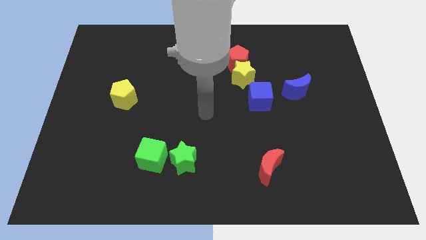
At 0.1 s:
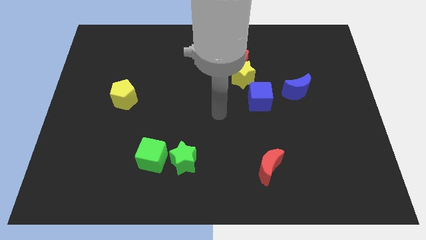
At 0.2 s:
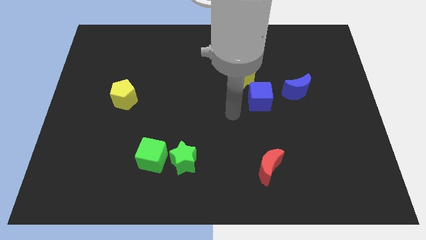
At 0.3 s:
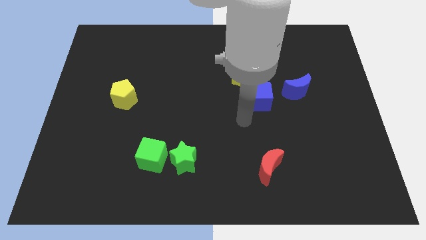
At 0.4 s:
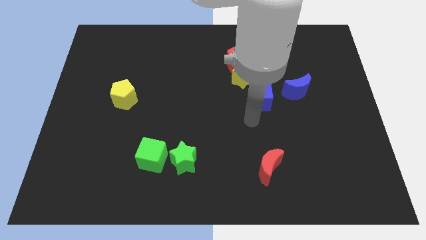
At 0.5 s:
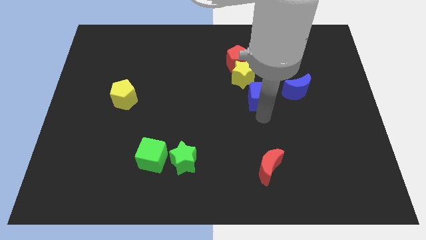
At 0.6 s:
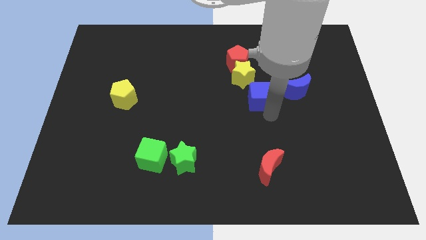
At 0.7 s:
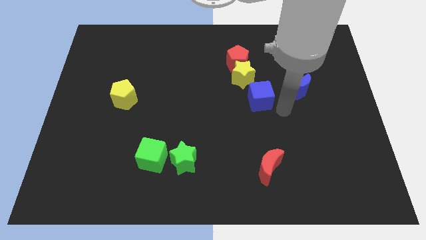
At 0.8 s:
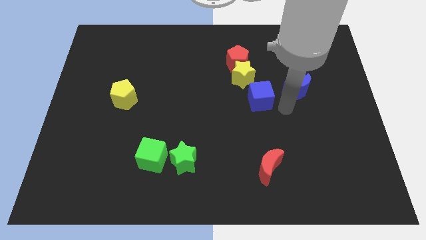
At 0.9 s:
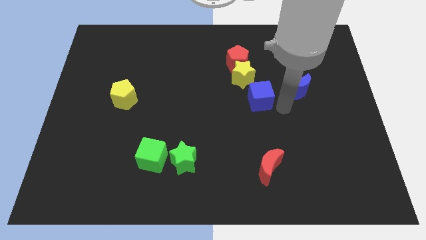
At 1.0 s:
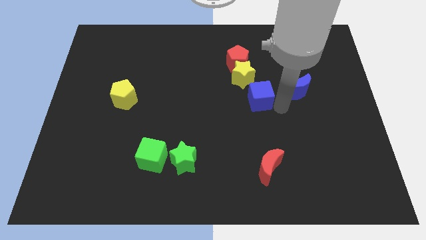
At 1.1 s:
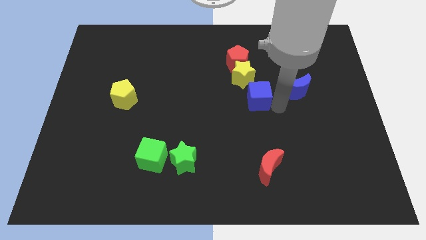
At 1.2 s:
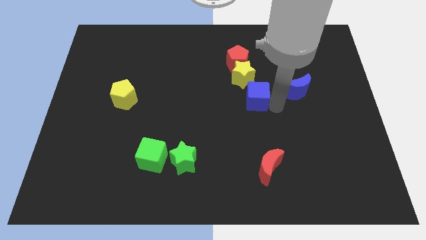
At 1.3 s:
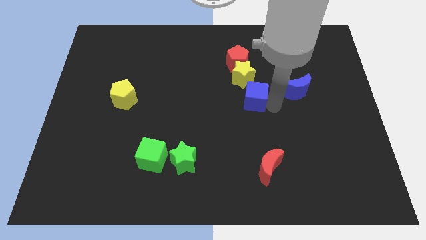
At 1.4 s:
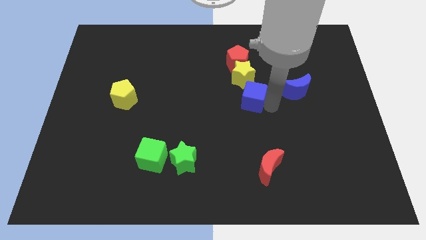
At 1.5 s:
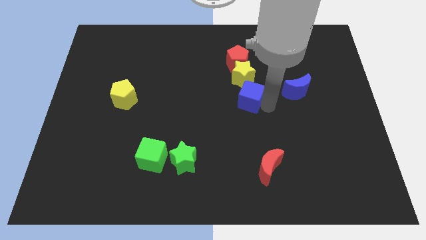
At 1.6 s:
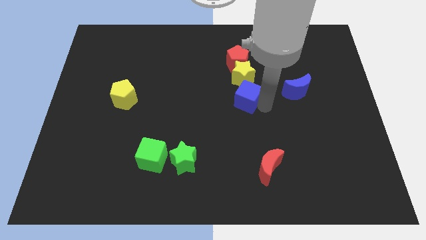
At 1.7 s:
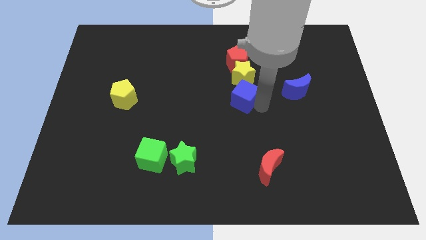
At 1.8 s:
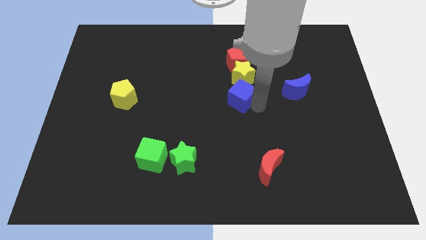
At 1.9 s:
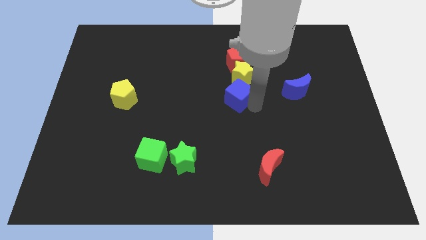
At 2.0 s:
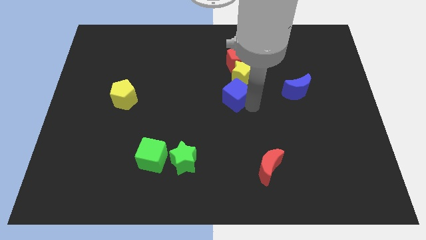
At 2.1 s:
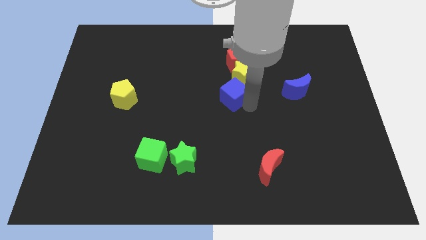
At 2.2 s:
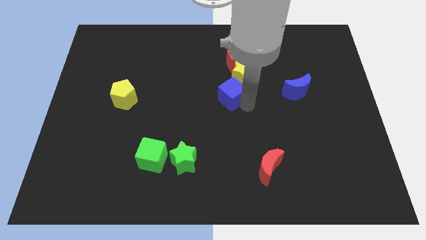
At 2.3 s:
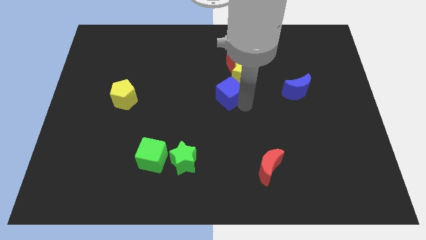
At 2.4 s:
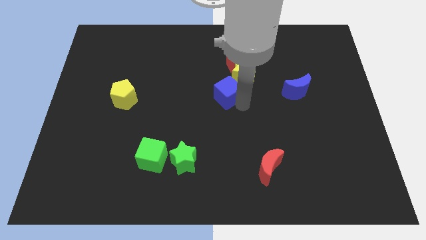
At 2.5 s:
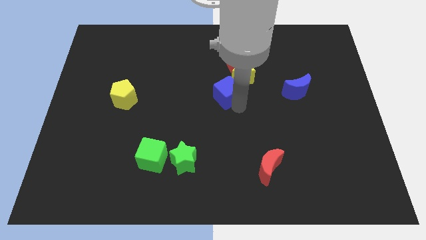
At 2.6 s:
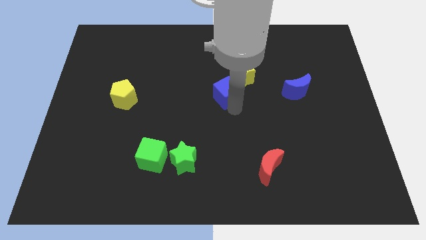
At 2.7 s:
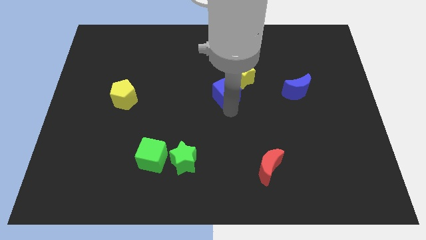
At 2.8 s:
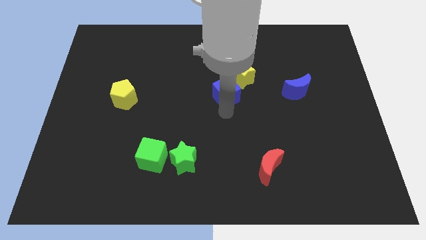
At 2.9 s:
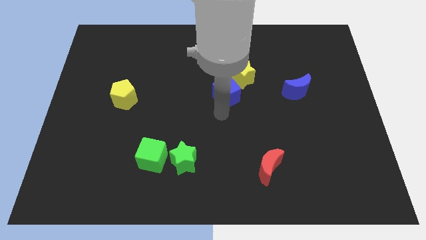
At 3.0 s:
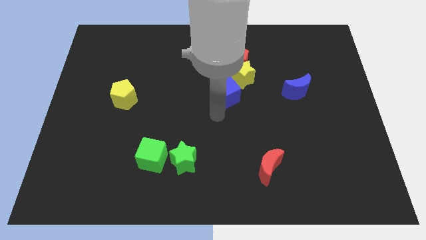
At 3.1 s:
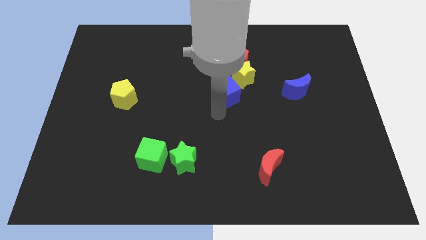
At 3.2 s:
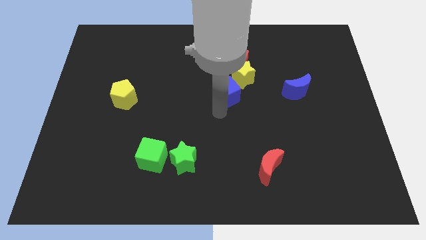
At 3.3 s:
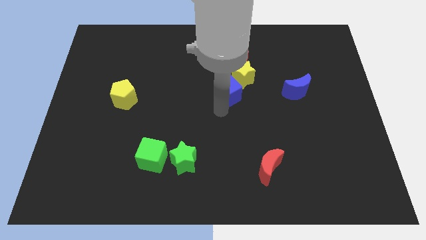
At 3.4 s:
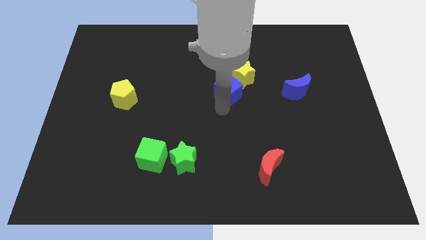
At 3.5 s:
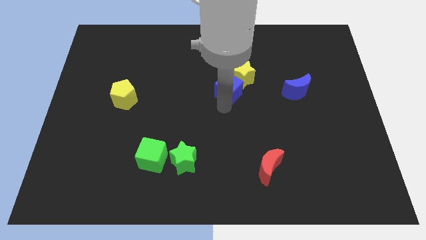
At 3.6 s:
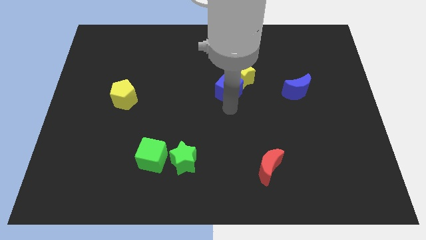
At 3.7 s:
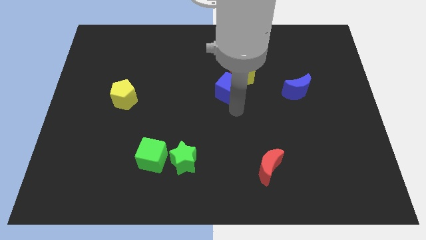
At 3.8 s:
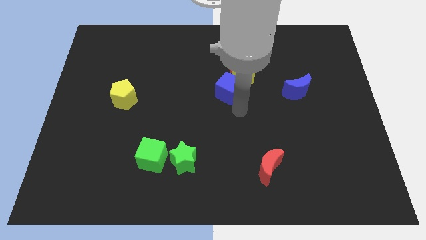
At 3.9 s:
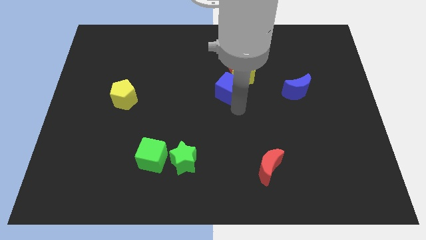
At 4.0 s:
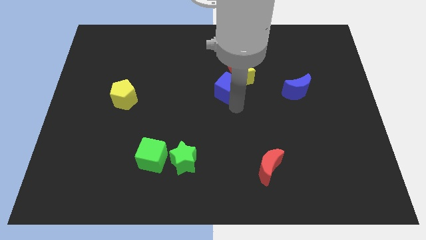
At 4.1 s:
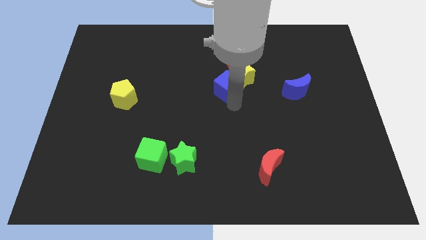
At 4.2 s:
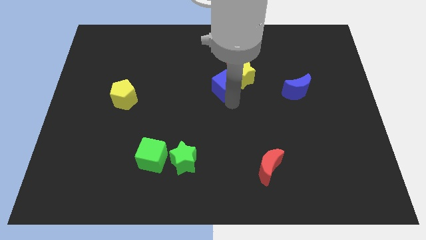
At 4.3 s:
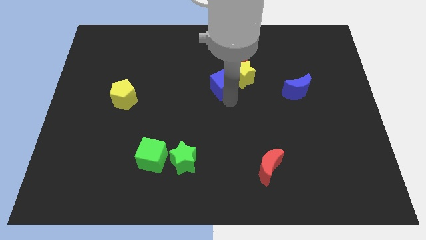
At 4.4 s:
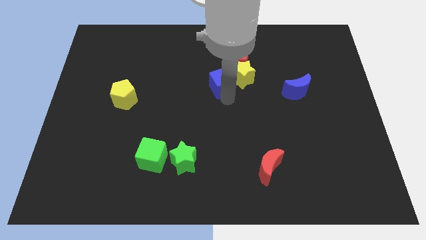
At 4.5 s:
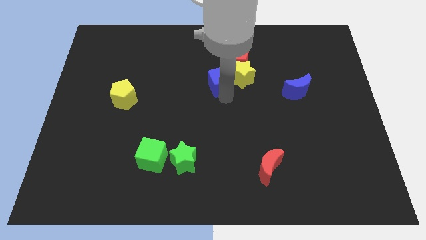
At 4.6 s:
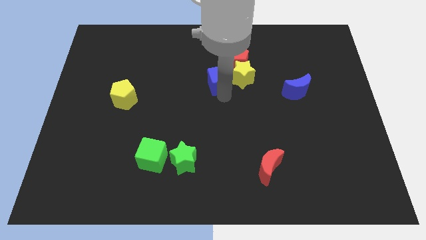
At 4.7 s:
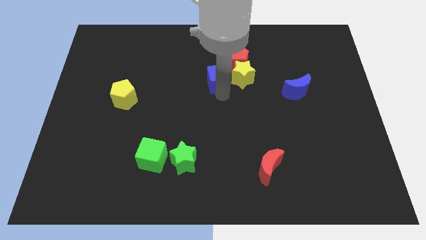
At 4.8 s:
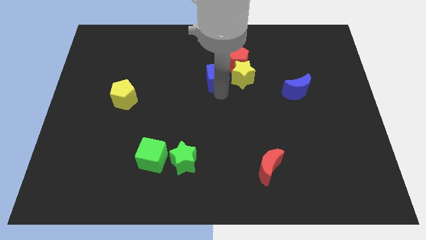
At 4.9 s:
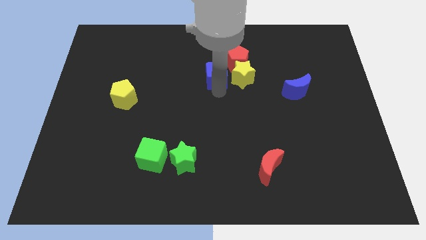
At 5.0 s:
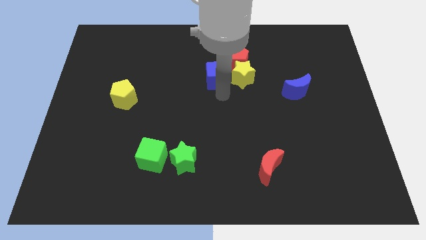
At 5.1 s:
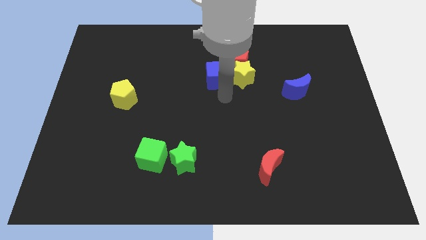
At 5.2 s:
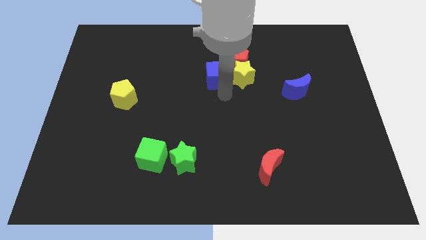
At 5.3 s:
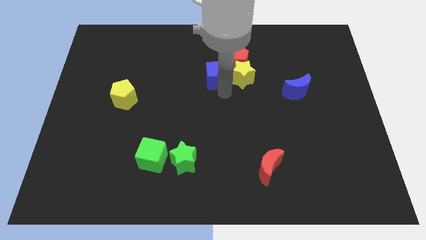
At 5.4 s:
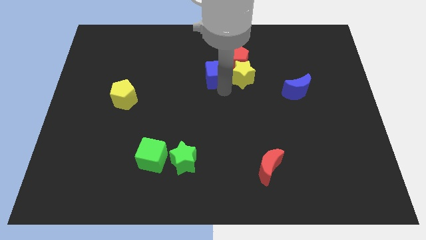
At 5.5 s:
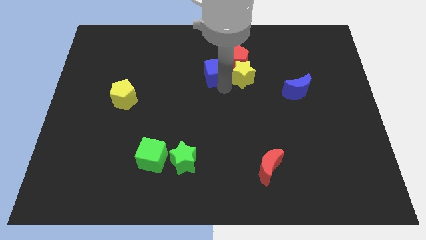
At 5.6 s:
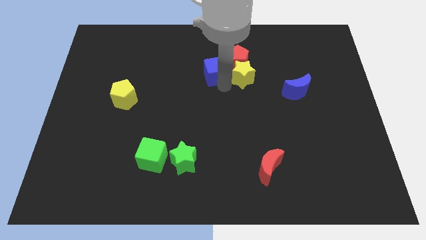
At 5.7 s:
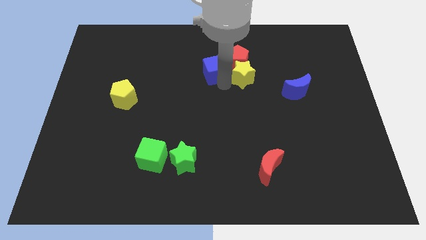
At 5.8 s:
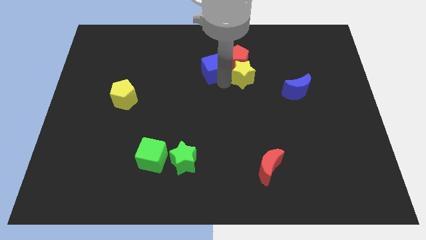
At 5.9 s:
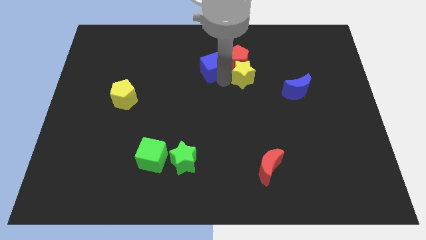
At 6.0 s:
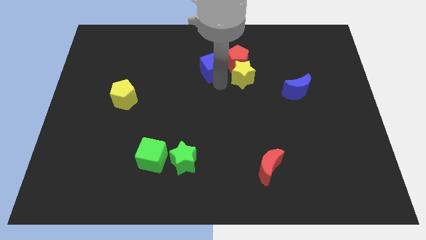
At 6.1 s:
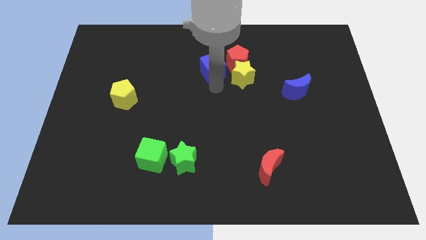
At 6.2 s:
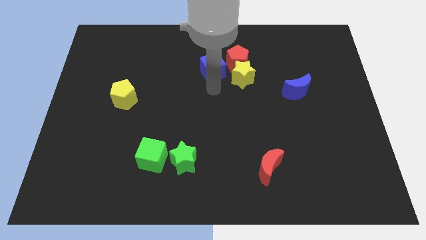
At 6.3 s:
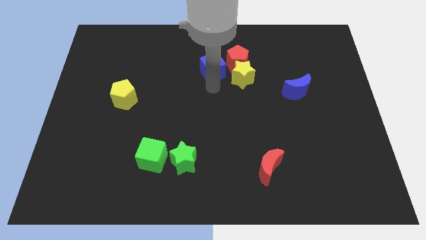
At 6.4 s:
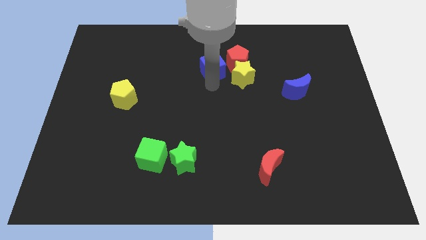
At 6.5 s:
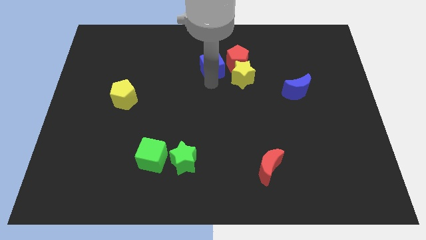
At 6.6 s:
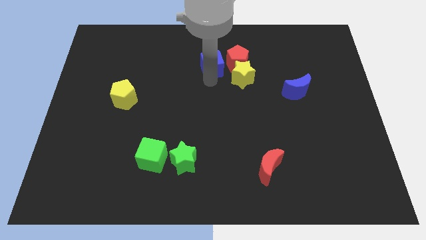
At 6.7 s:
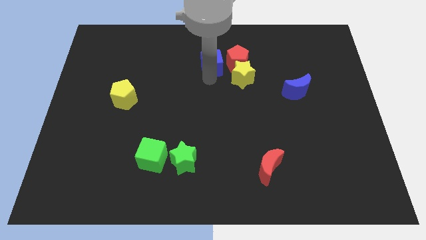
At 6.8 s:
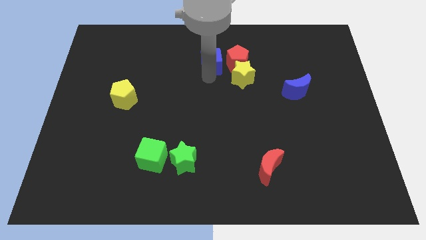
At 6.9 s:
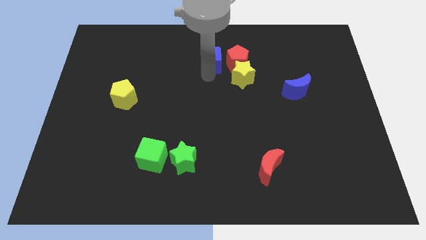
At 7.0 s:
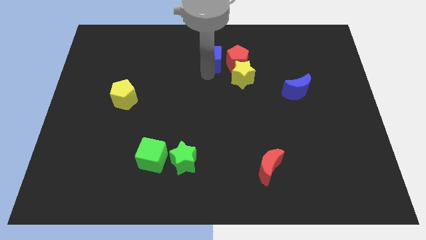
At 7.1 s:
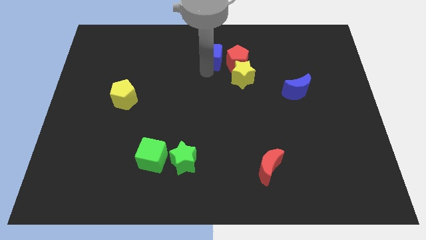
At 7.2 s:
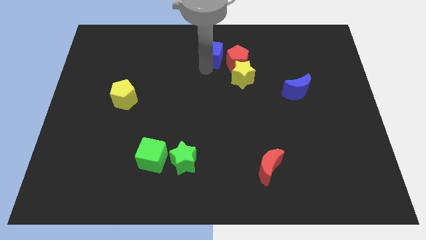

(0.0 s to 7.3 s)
push the blue cube to the top side
